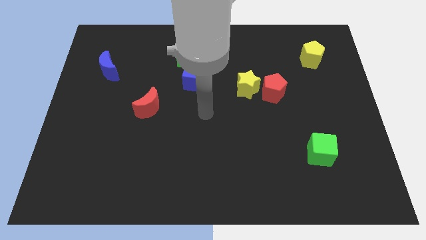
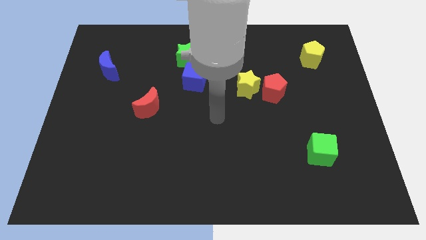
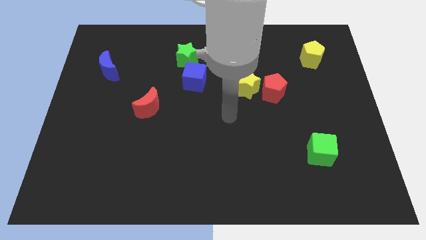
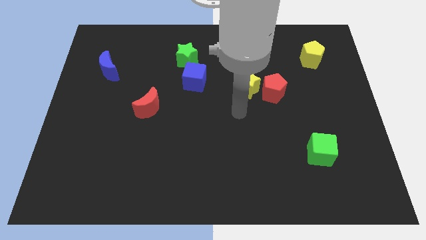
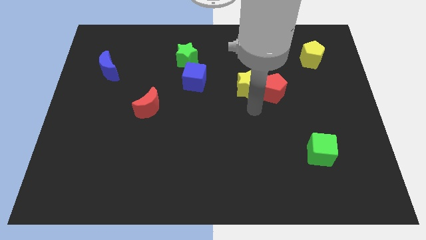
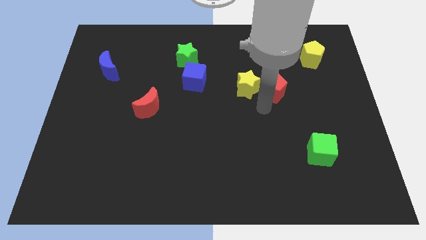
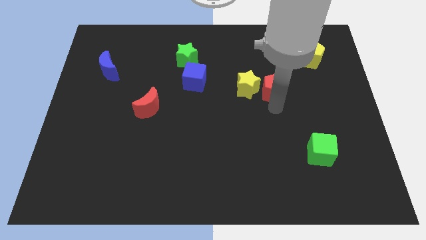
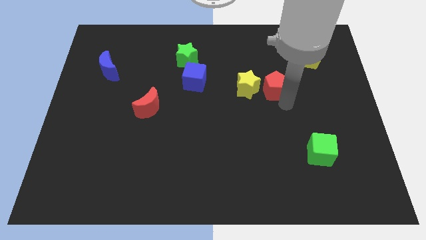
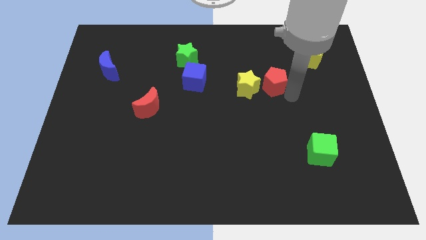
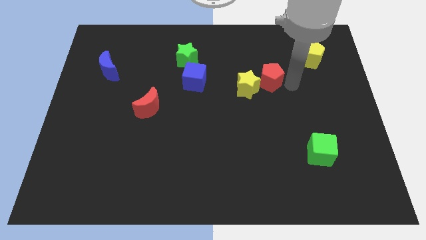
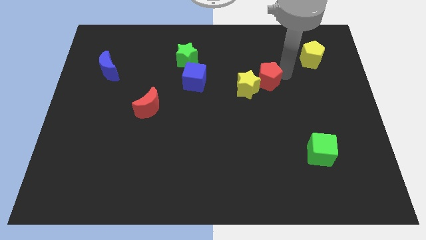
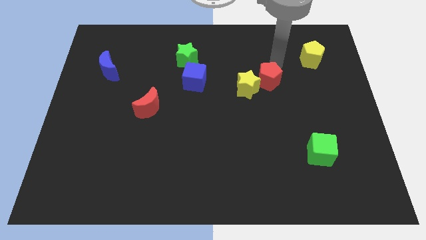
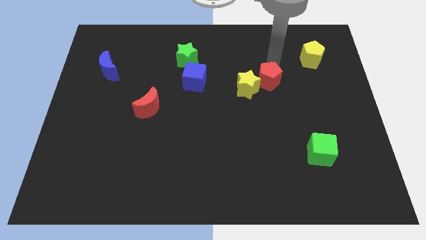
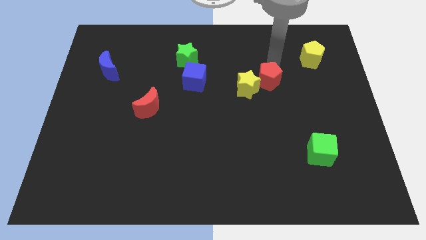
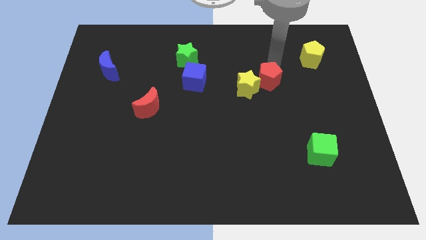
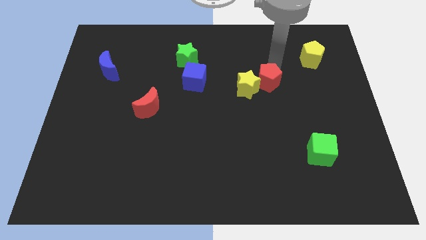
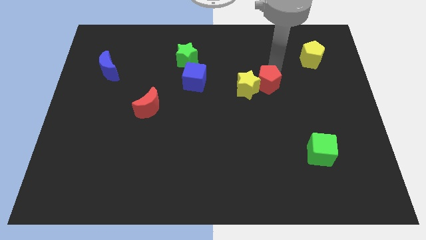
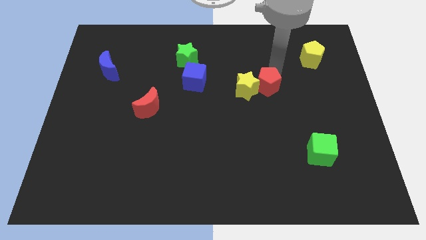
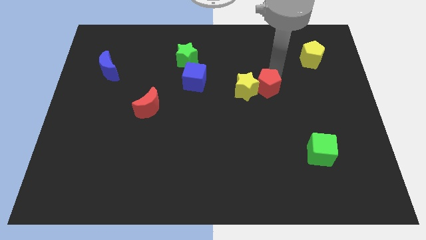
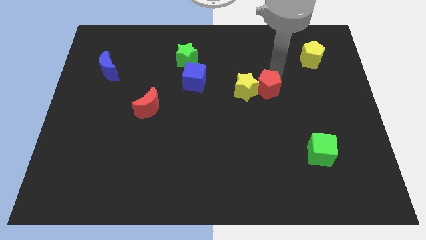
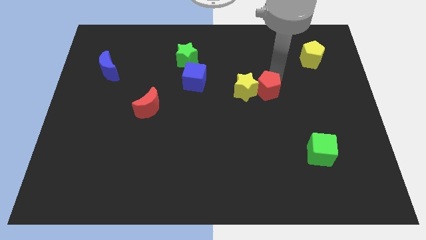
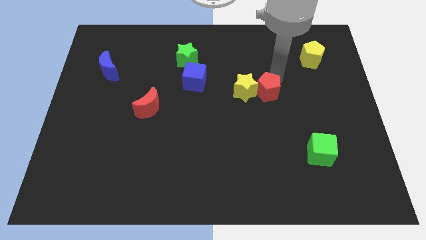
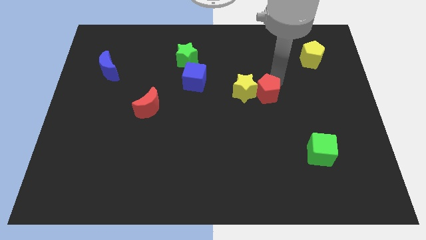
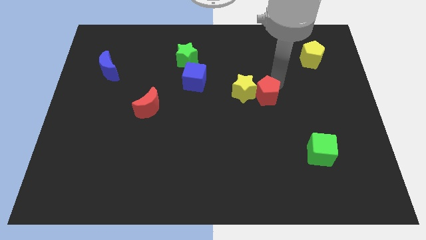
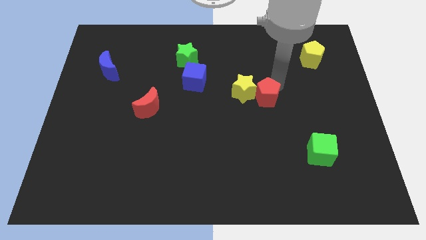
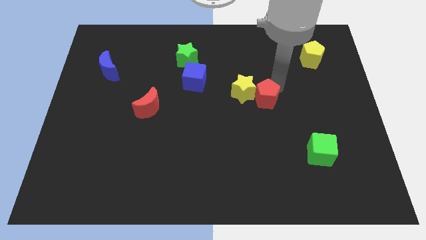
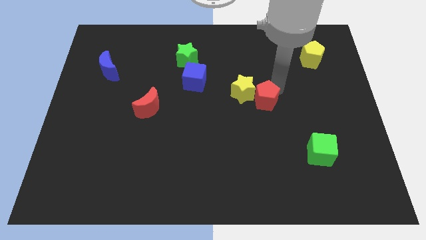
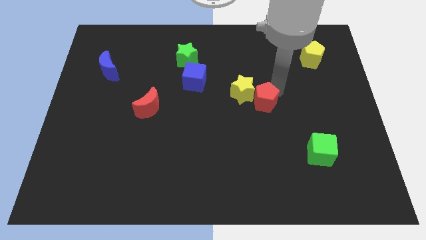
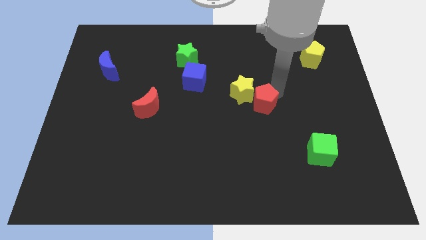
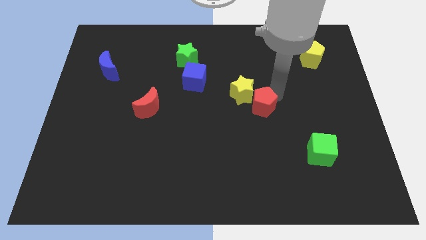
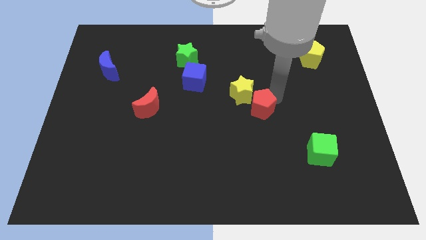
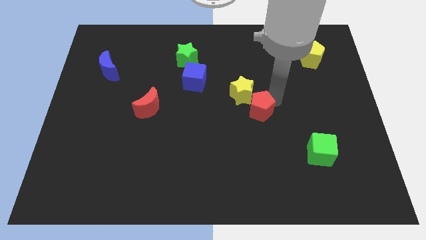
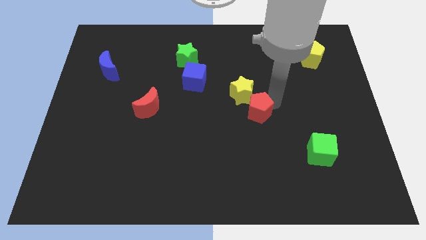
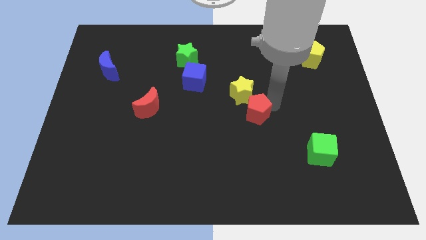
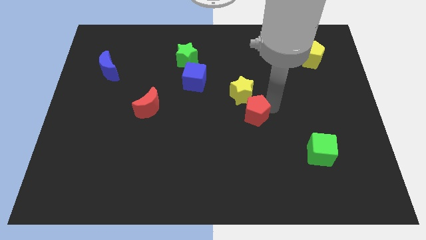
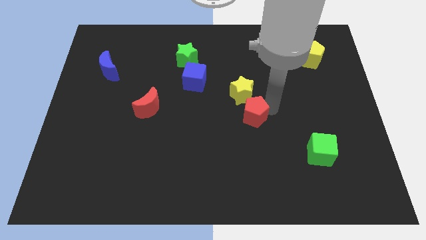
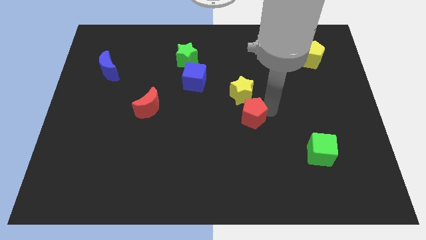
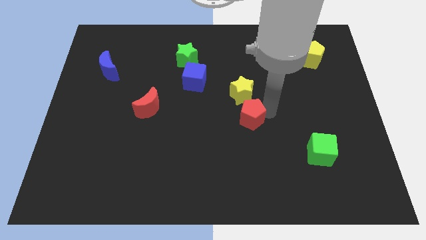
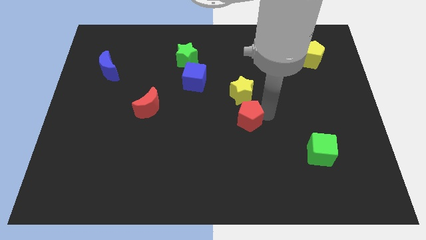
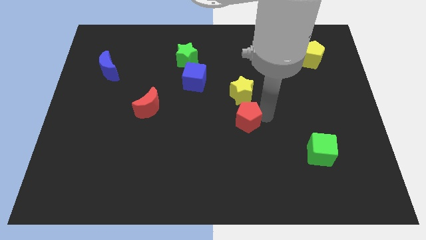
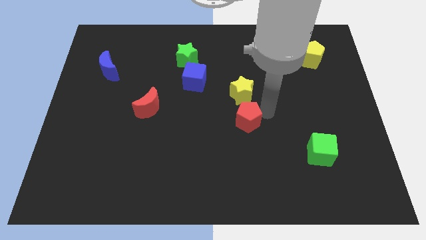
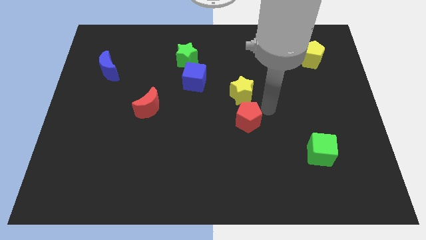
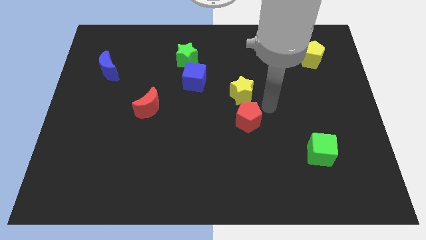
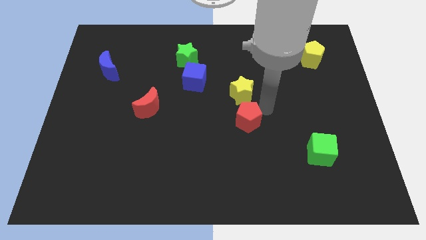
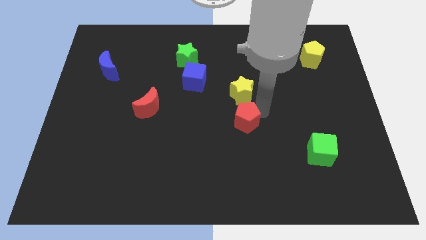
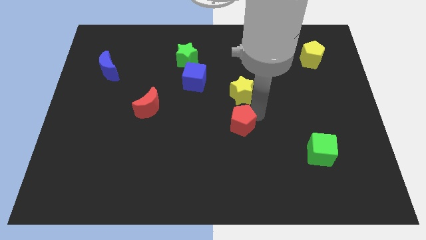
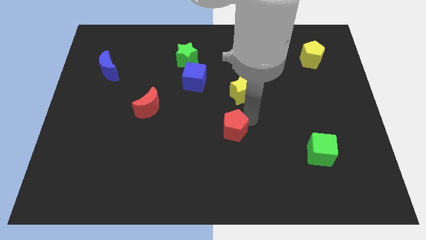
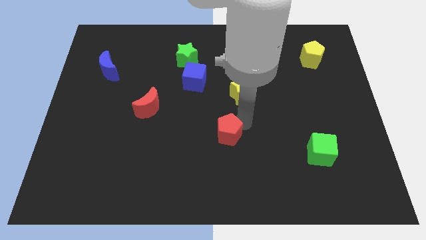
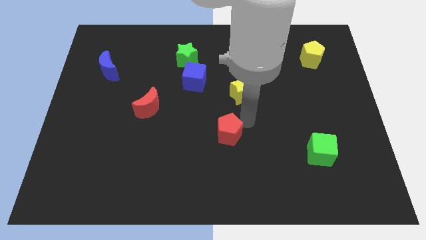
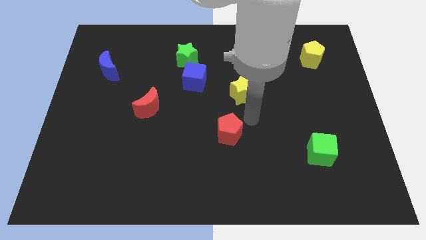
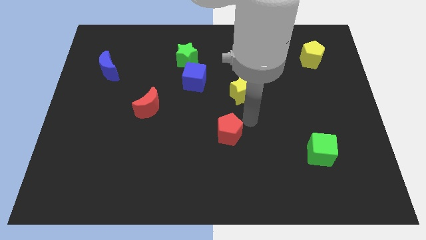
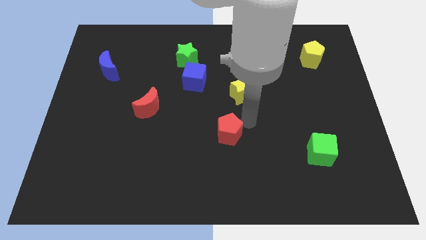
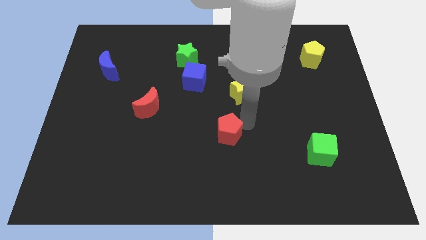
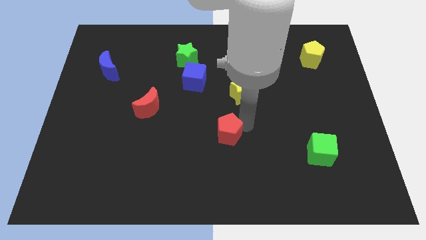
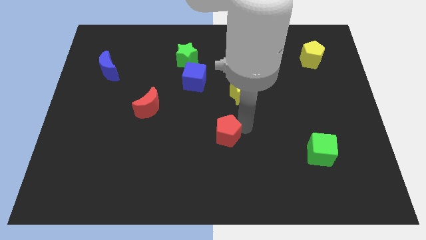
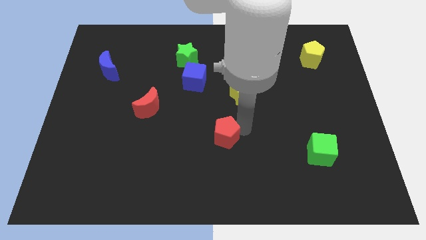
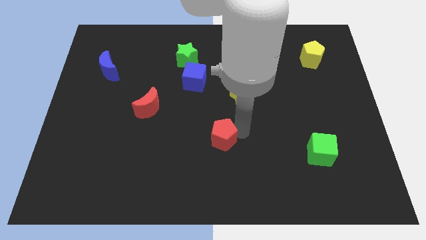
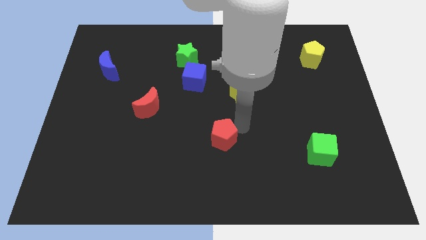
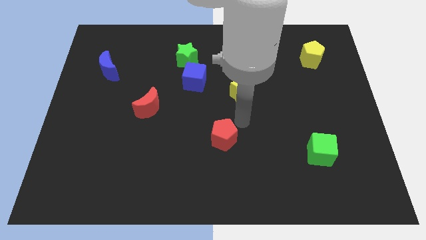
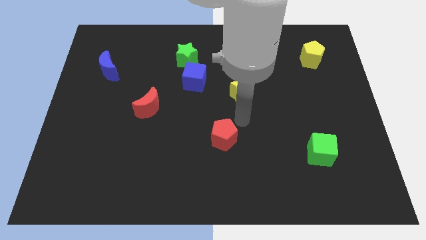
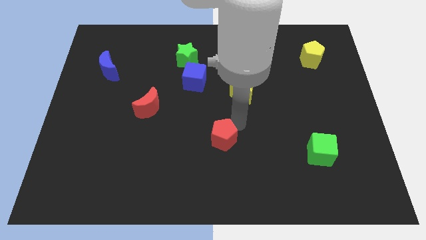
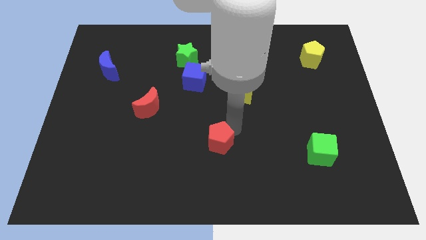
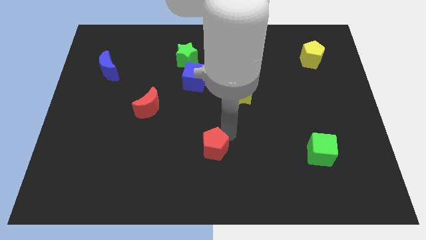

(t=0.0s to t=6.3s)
slide the red pentagon down and left diagonally

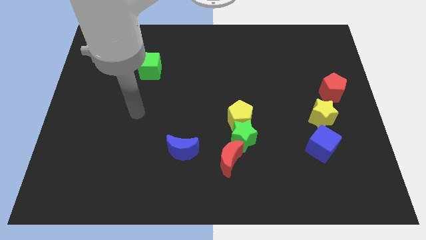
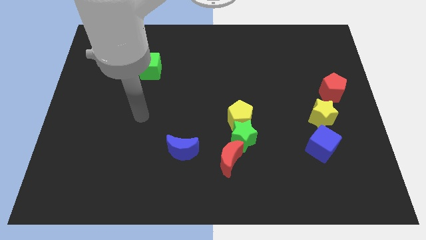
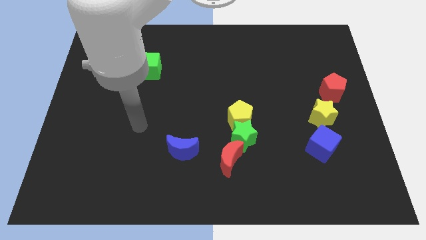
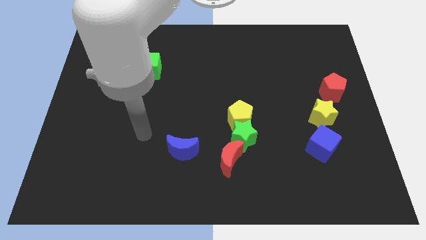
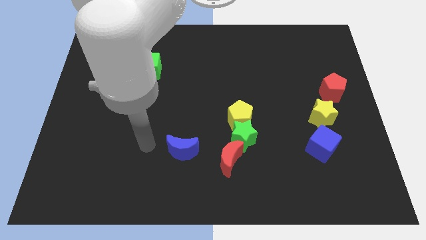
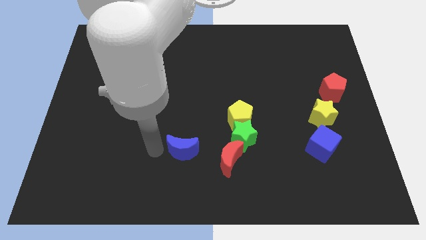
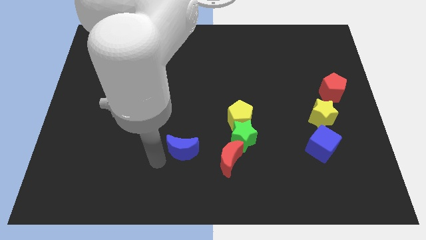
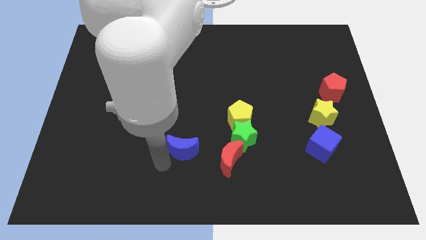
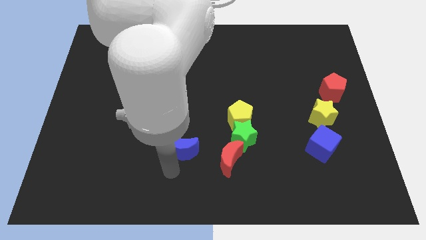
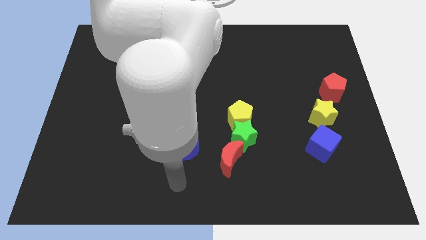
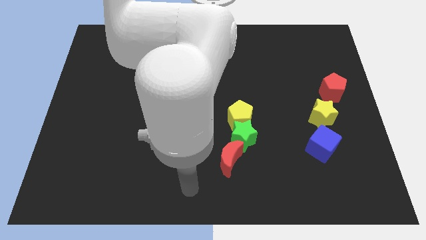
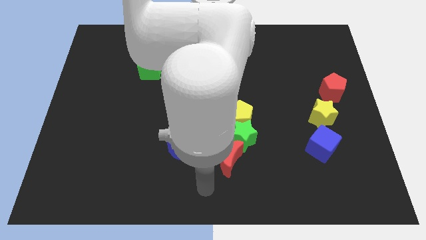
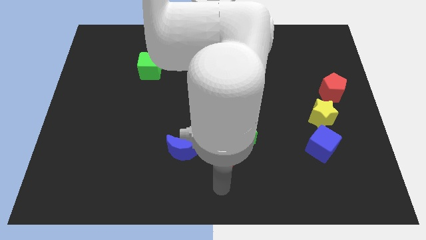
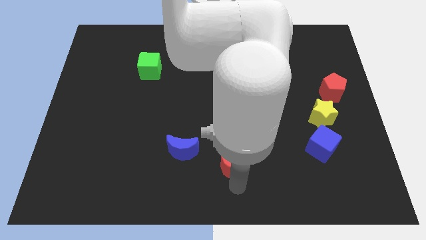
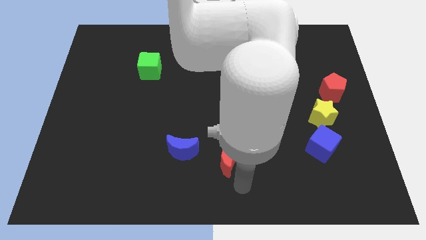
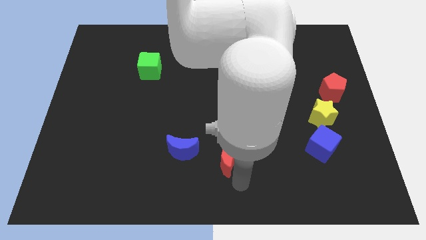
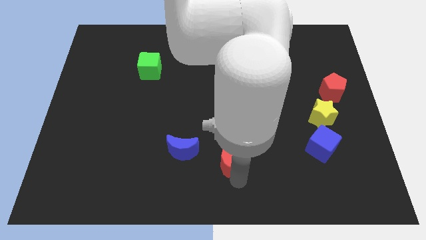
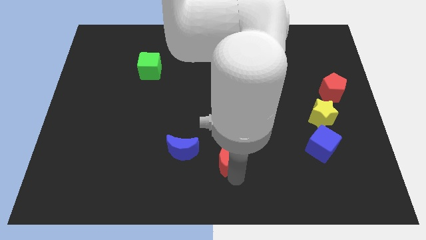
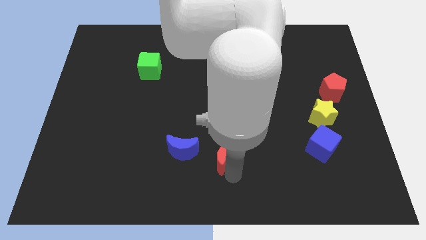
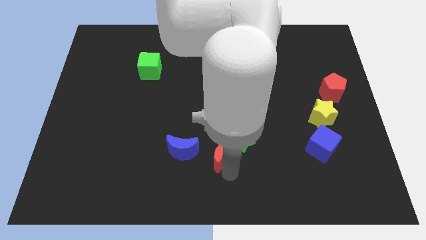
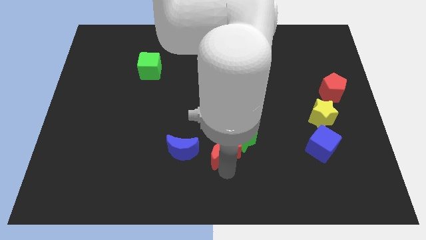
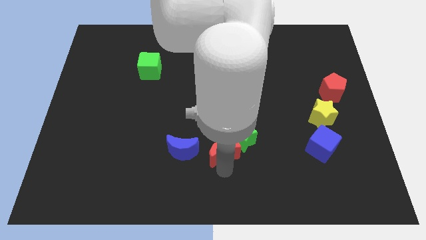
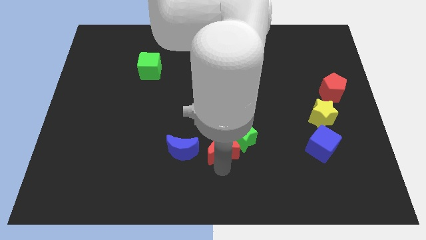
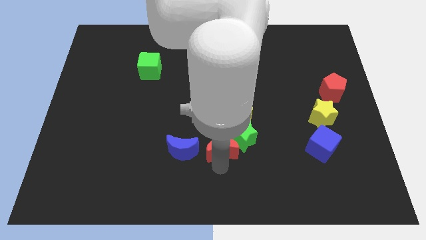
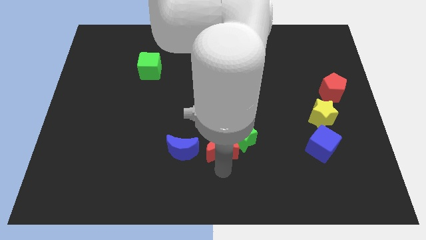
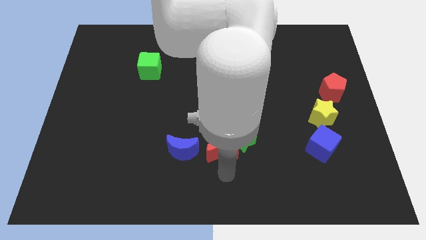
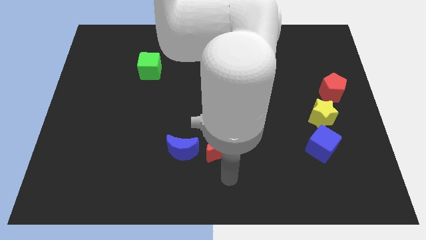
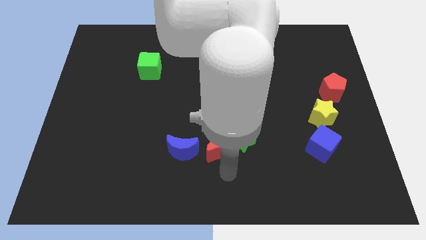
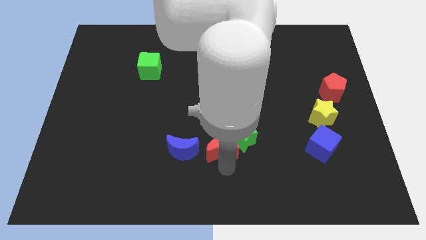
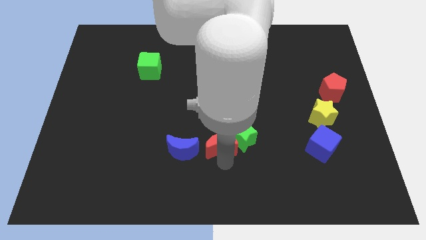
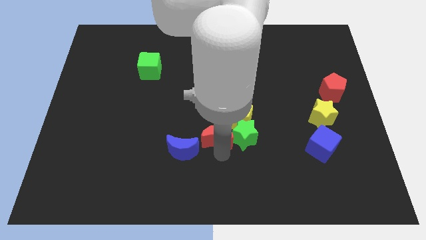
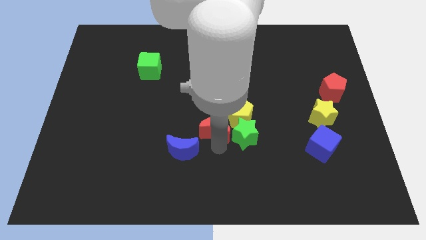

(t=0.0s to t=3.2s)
slightly move the red moon up
